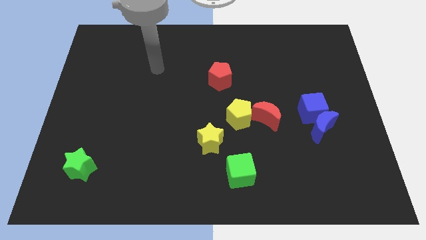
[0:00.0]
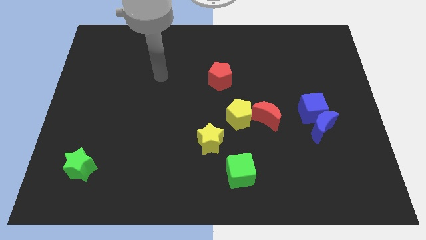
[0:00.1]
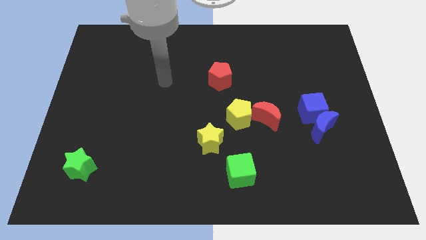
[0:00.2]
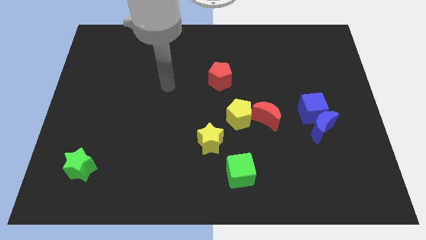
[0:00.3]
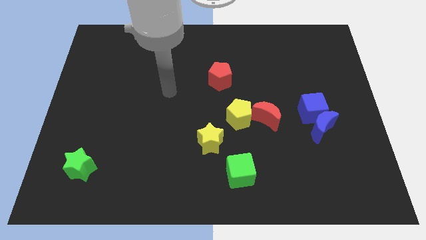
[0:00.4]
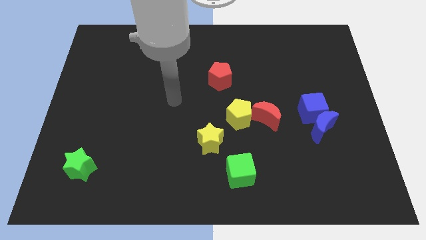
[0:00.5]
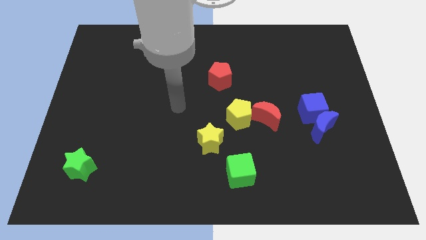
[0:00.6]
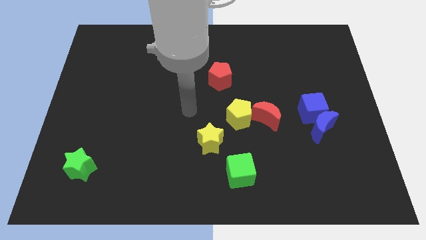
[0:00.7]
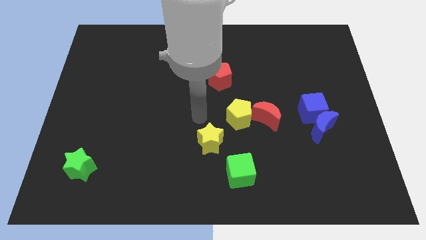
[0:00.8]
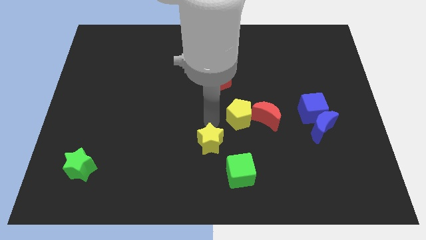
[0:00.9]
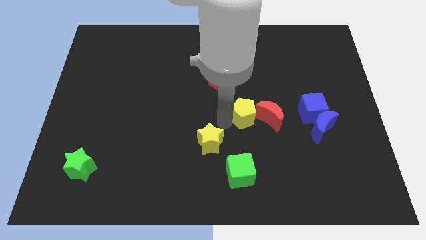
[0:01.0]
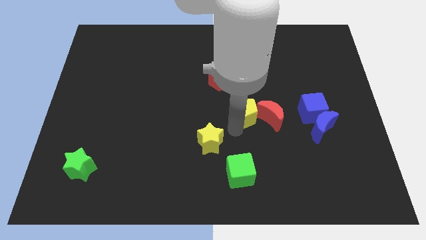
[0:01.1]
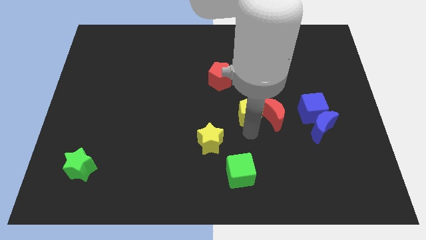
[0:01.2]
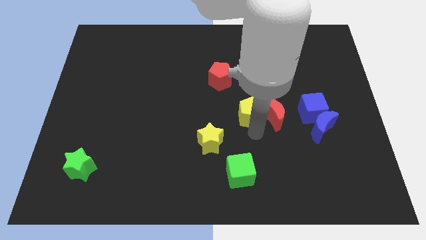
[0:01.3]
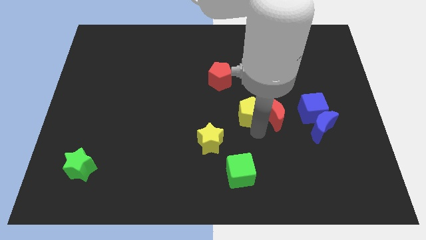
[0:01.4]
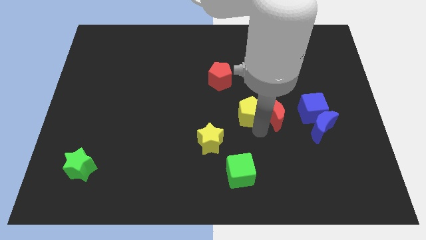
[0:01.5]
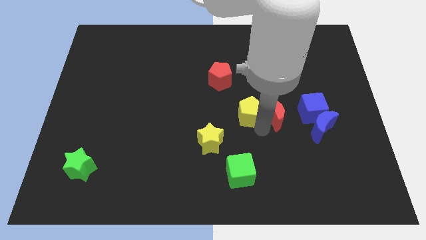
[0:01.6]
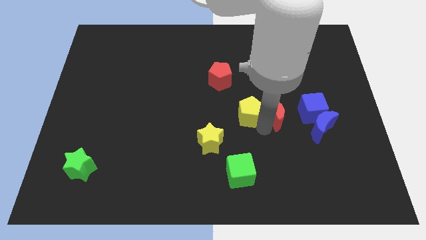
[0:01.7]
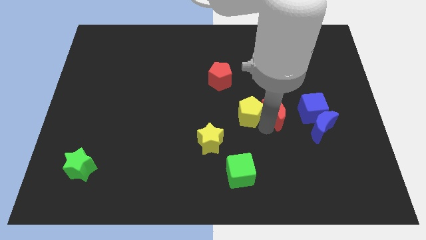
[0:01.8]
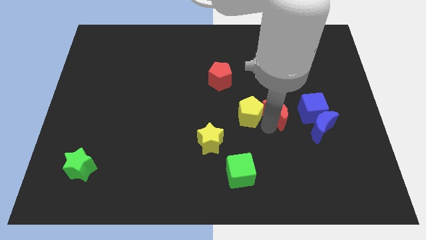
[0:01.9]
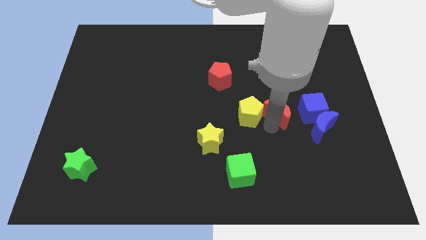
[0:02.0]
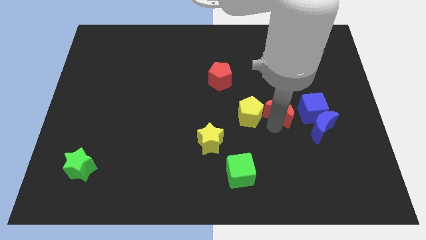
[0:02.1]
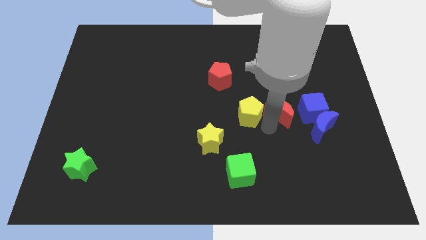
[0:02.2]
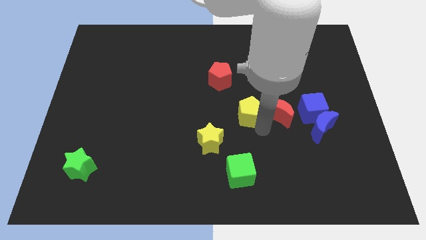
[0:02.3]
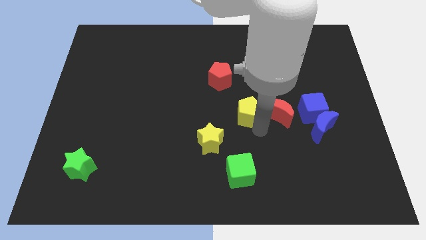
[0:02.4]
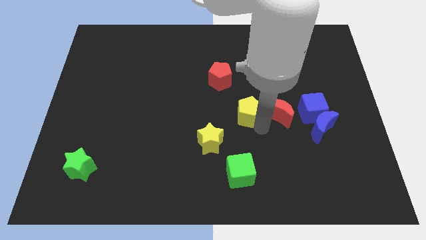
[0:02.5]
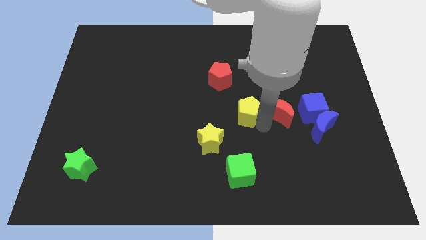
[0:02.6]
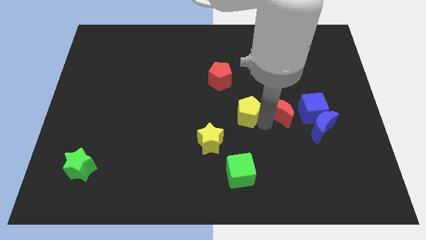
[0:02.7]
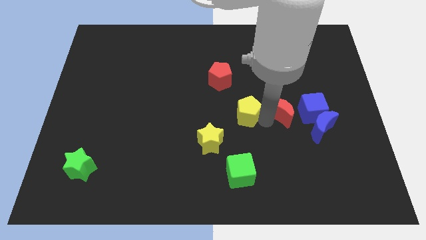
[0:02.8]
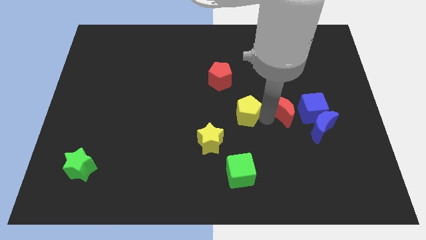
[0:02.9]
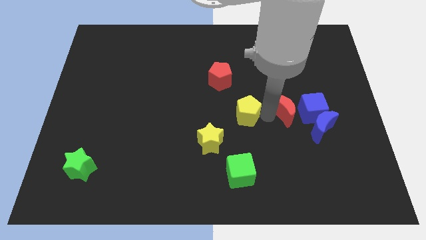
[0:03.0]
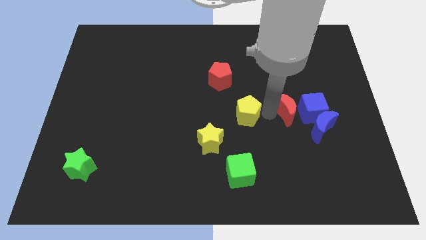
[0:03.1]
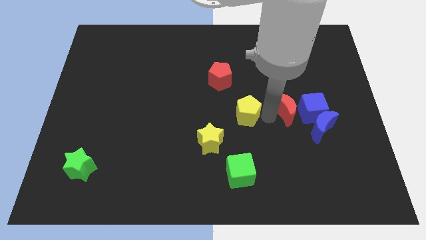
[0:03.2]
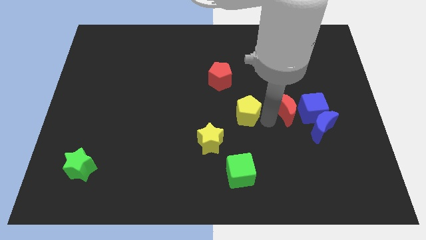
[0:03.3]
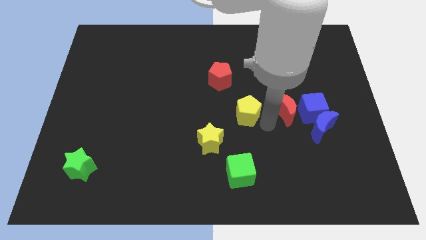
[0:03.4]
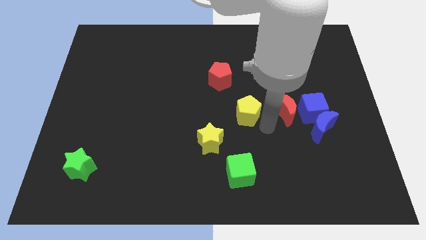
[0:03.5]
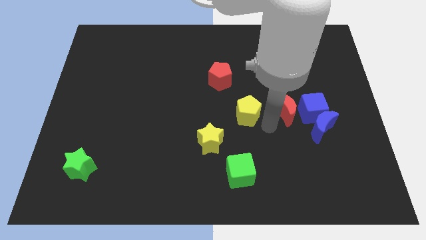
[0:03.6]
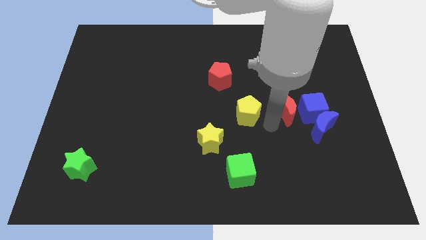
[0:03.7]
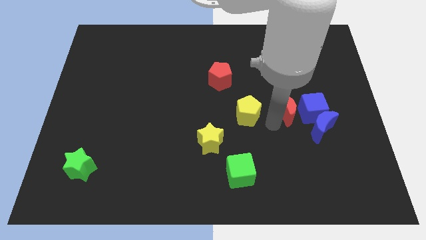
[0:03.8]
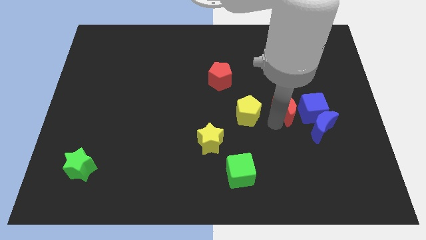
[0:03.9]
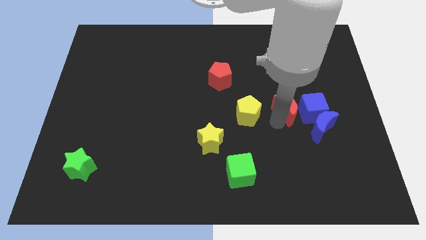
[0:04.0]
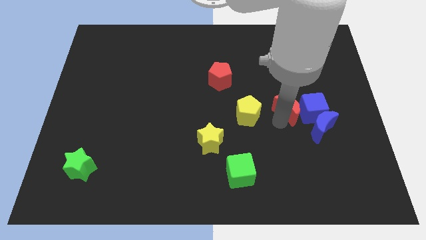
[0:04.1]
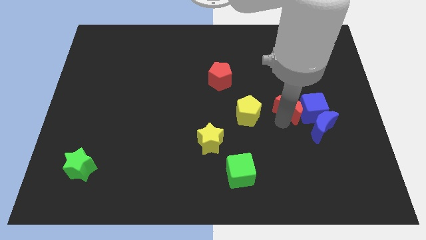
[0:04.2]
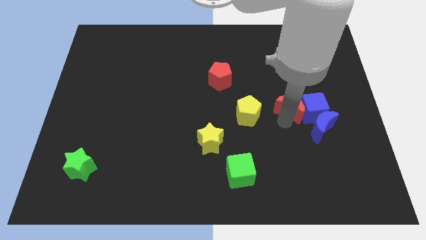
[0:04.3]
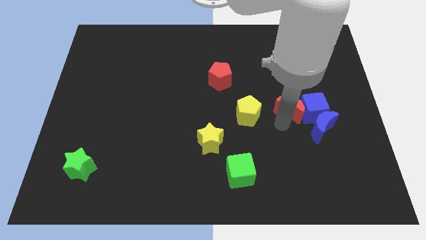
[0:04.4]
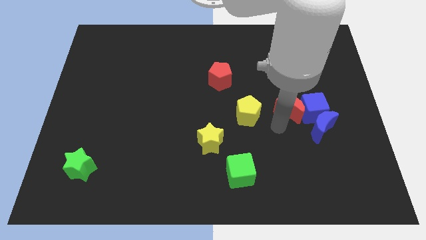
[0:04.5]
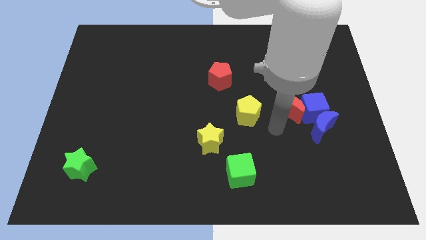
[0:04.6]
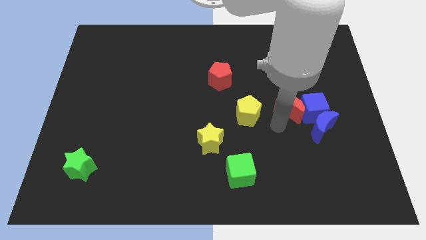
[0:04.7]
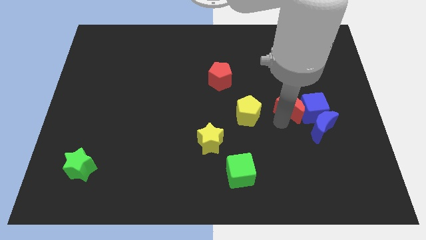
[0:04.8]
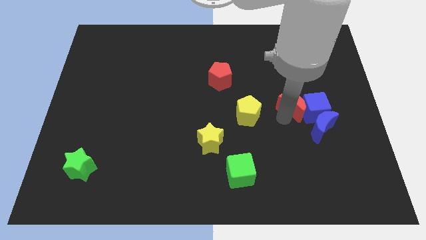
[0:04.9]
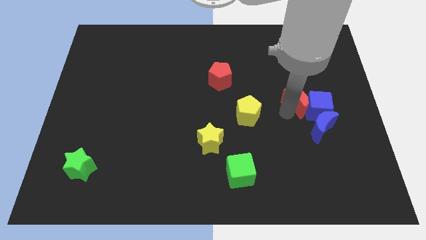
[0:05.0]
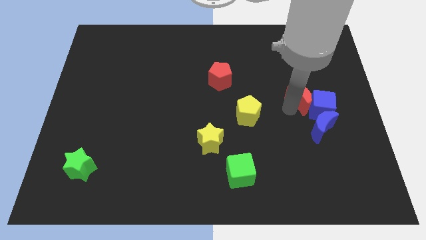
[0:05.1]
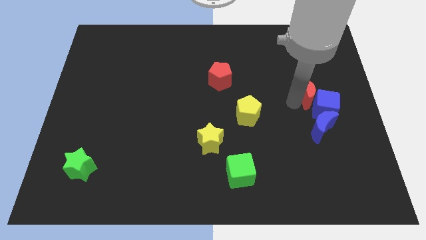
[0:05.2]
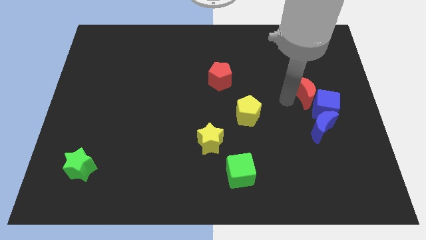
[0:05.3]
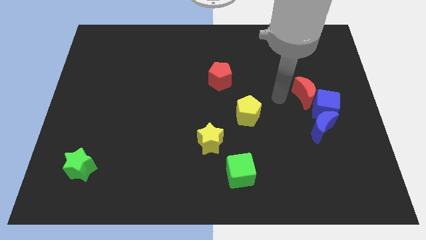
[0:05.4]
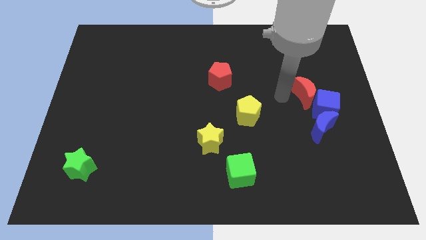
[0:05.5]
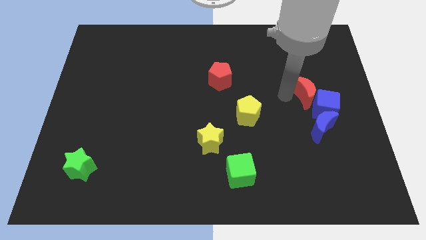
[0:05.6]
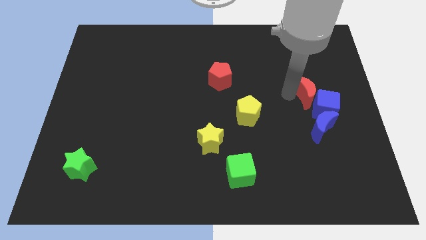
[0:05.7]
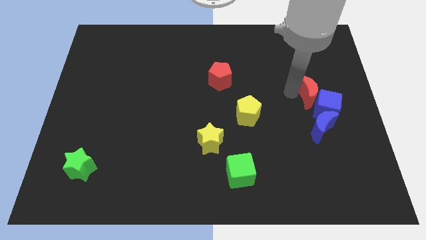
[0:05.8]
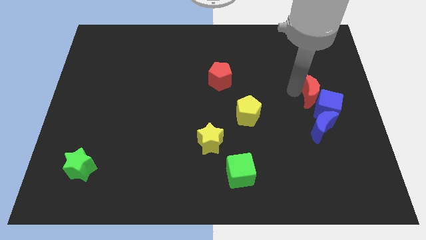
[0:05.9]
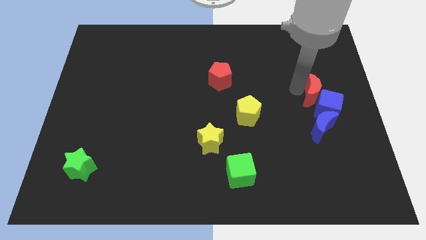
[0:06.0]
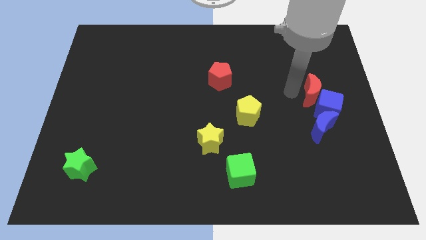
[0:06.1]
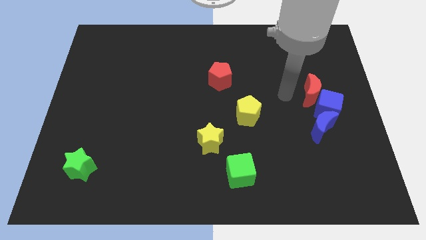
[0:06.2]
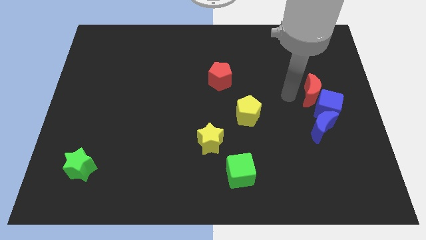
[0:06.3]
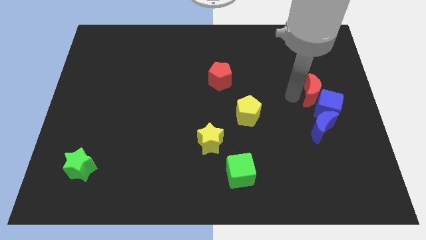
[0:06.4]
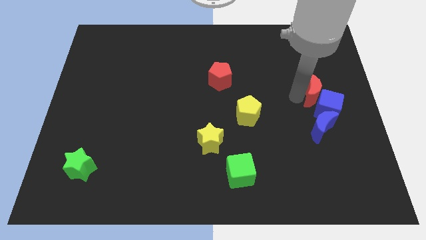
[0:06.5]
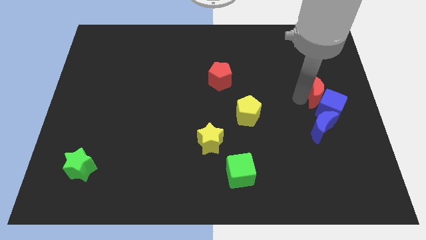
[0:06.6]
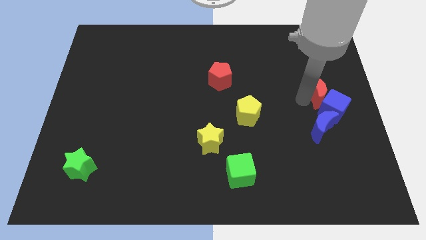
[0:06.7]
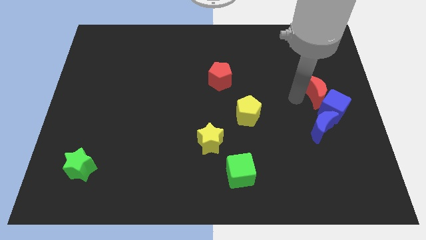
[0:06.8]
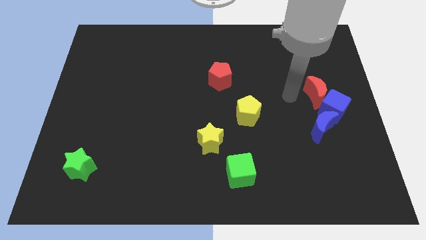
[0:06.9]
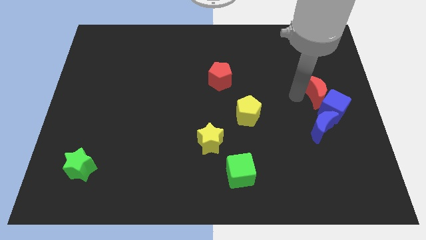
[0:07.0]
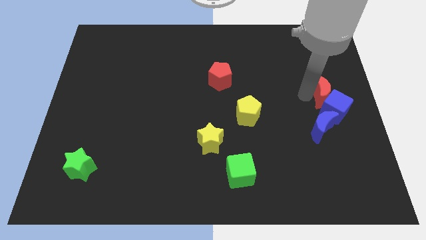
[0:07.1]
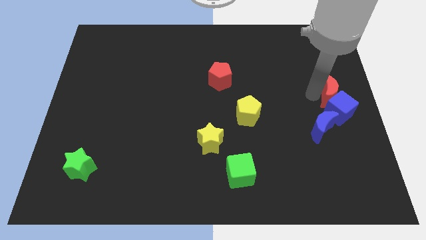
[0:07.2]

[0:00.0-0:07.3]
slide the red moon to the top right of the blue cube
